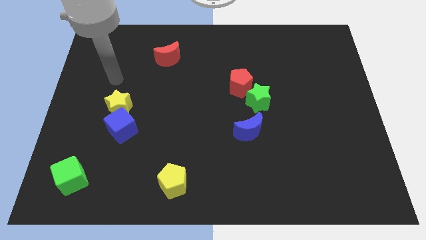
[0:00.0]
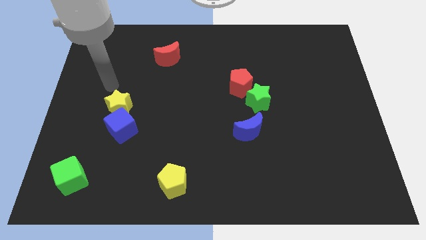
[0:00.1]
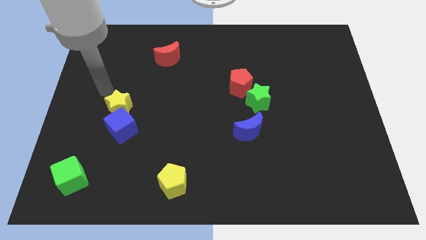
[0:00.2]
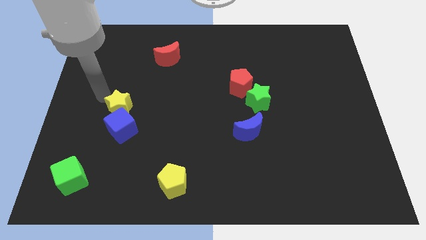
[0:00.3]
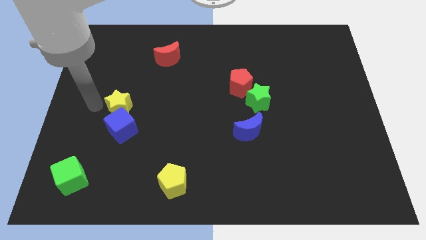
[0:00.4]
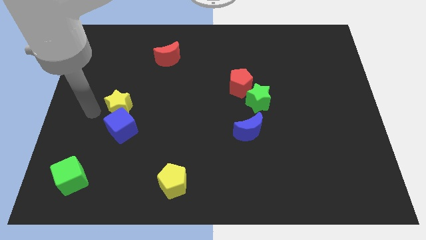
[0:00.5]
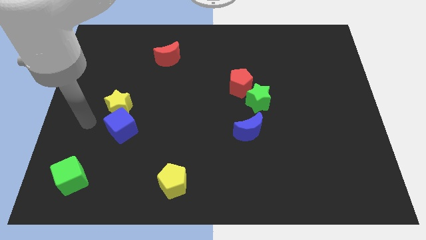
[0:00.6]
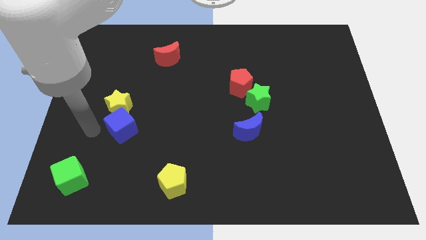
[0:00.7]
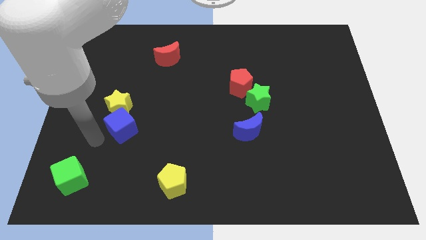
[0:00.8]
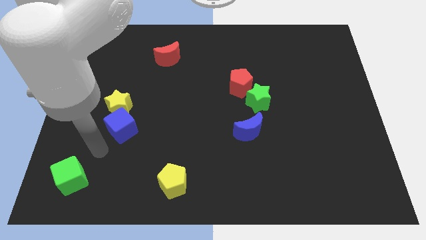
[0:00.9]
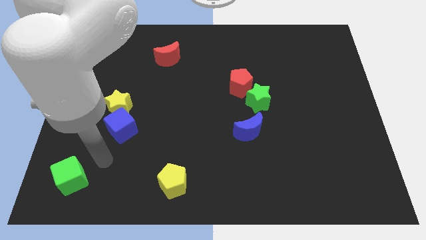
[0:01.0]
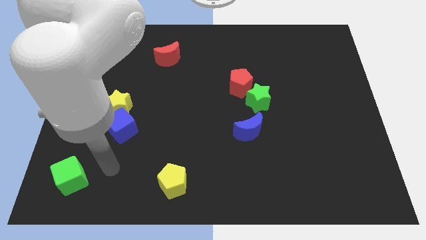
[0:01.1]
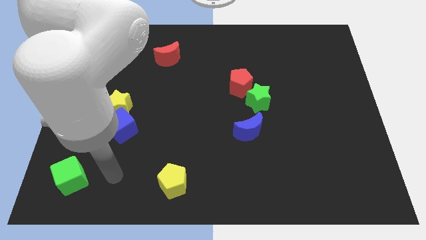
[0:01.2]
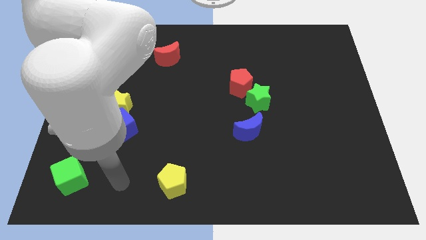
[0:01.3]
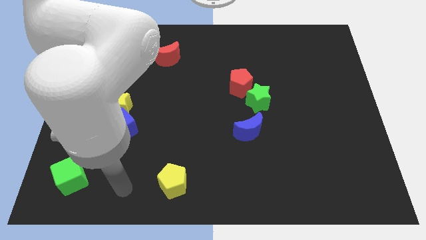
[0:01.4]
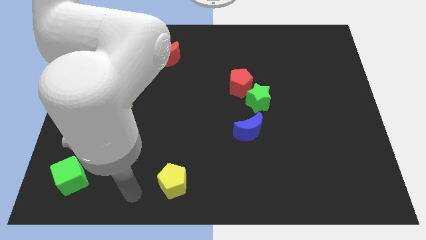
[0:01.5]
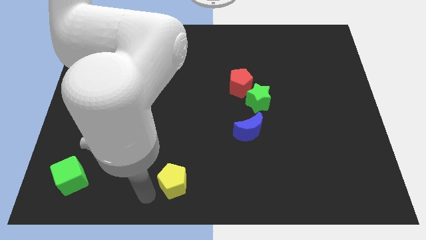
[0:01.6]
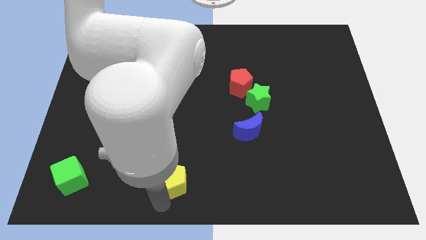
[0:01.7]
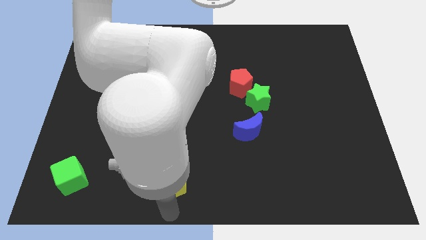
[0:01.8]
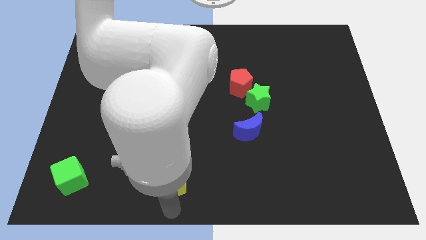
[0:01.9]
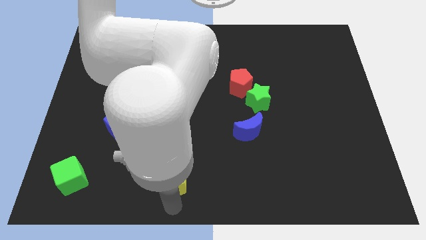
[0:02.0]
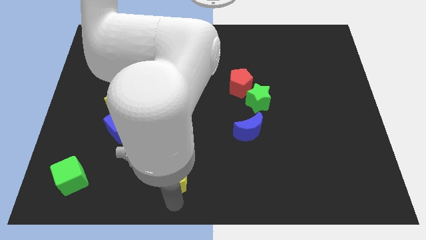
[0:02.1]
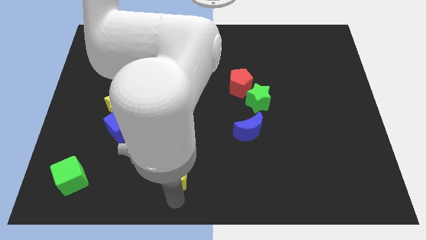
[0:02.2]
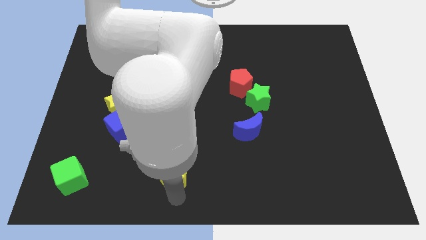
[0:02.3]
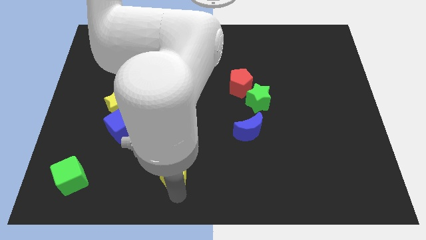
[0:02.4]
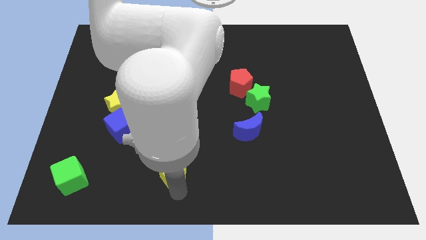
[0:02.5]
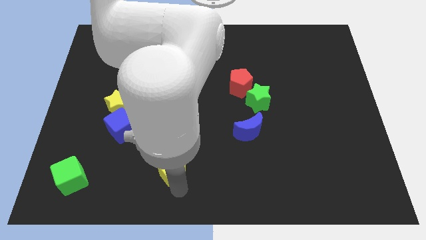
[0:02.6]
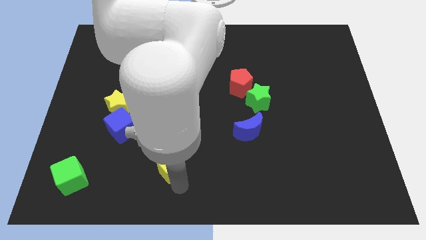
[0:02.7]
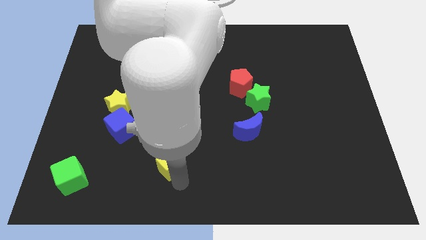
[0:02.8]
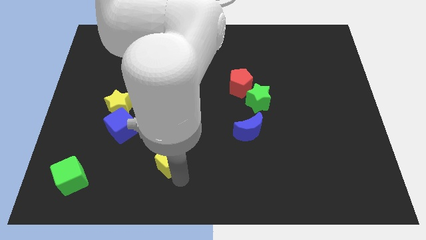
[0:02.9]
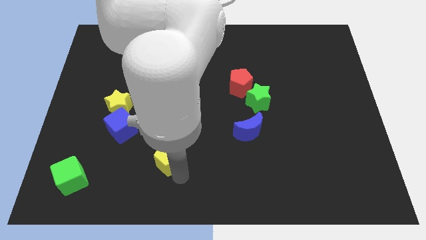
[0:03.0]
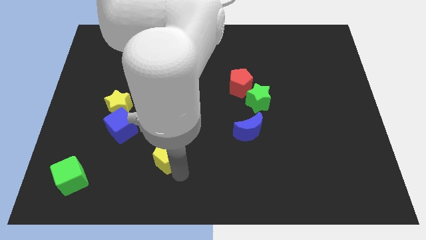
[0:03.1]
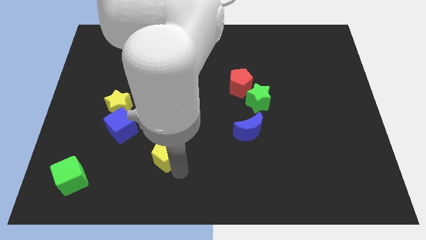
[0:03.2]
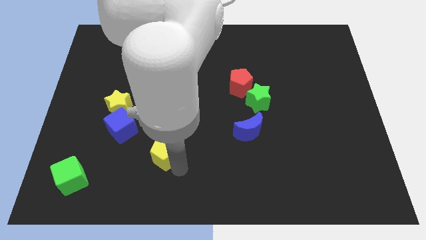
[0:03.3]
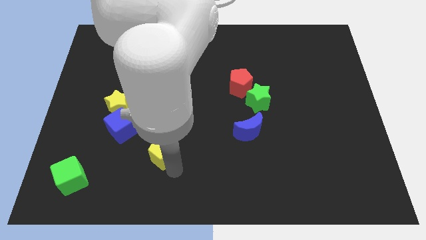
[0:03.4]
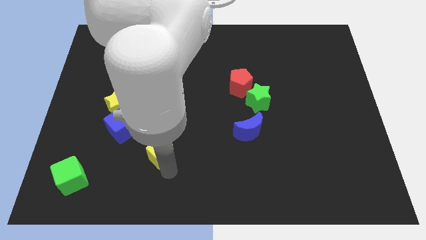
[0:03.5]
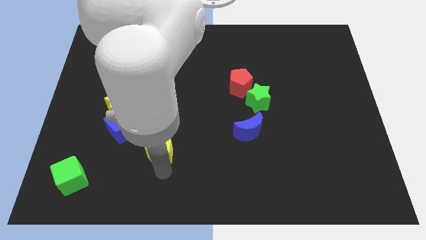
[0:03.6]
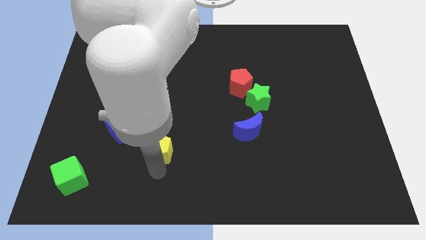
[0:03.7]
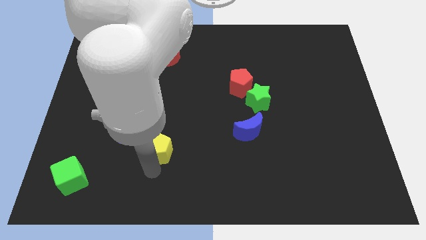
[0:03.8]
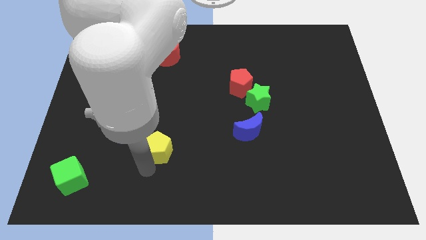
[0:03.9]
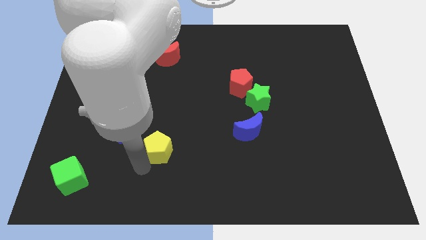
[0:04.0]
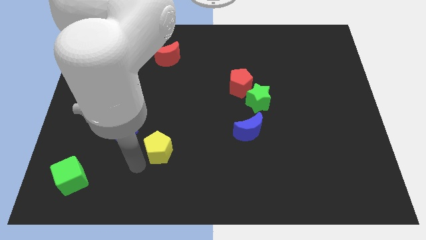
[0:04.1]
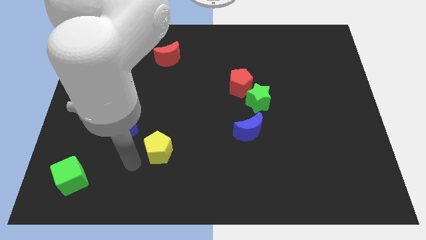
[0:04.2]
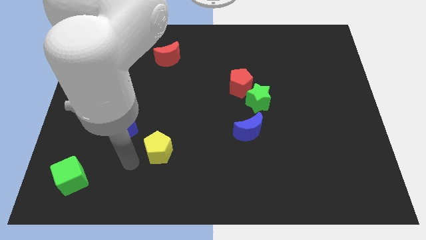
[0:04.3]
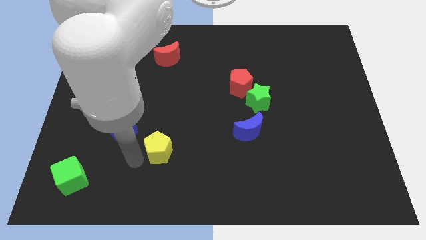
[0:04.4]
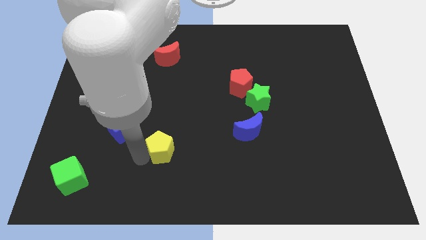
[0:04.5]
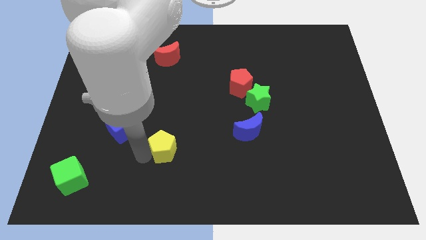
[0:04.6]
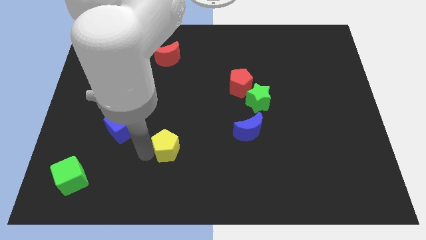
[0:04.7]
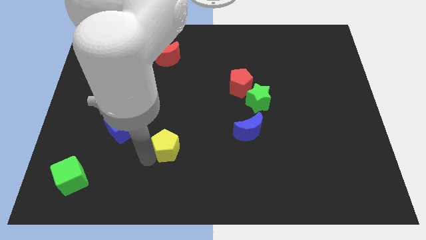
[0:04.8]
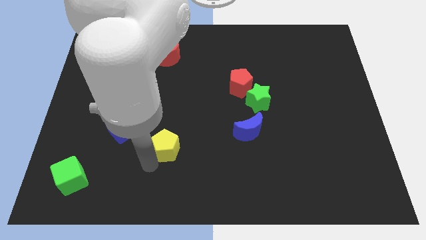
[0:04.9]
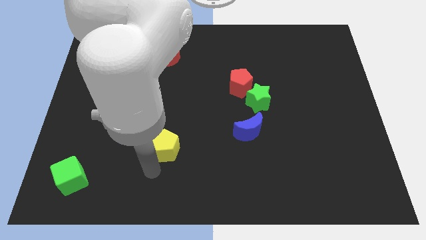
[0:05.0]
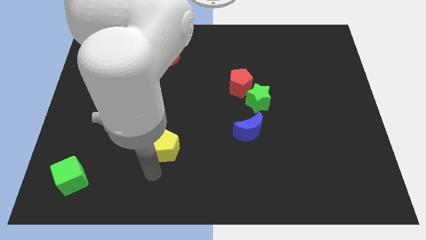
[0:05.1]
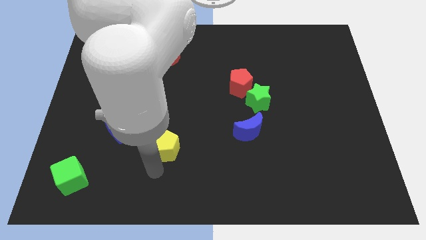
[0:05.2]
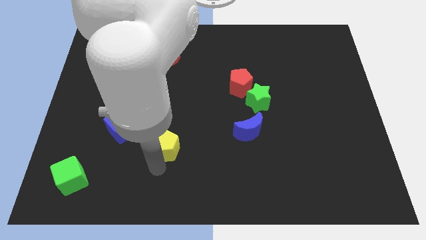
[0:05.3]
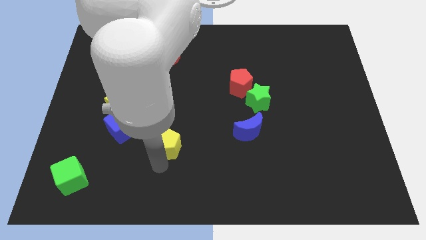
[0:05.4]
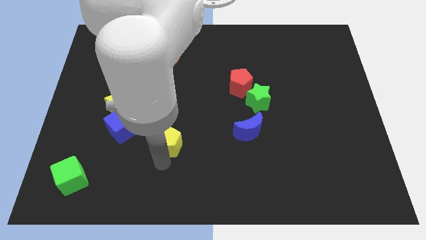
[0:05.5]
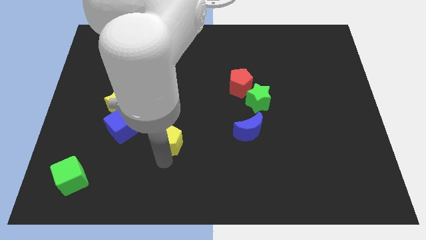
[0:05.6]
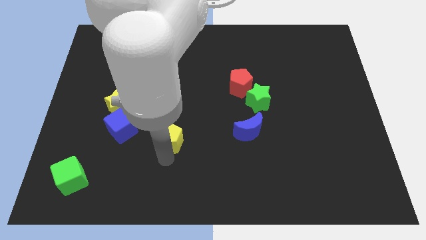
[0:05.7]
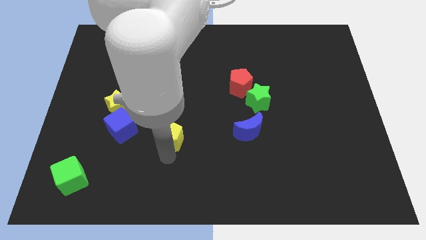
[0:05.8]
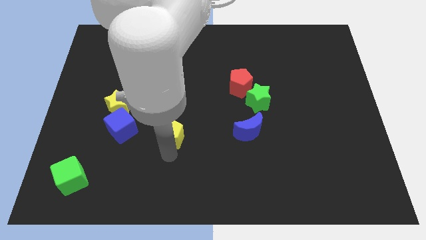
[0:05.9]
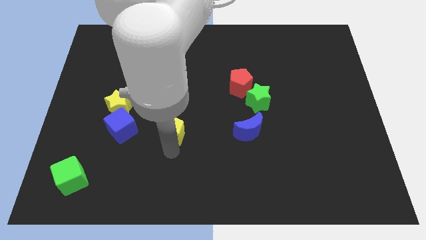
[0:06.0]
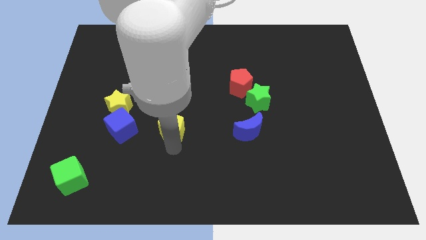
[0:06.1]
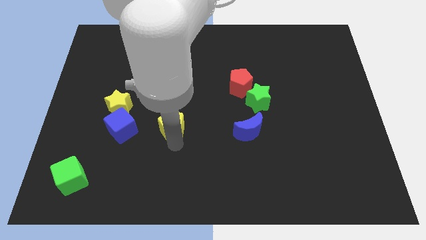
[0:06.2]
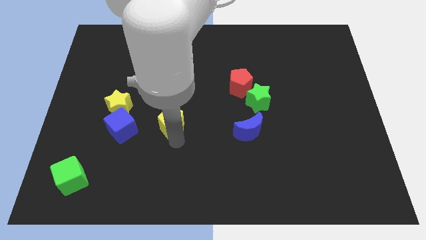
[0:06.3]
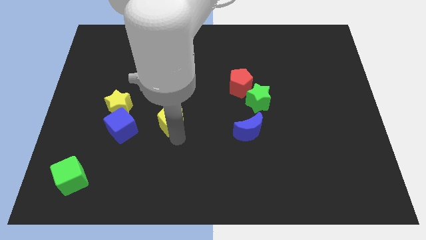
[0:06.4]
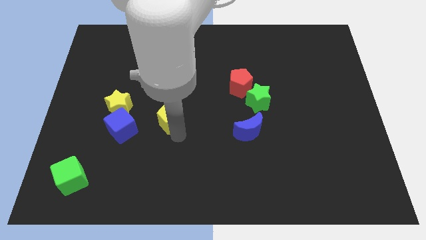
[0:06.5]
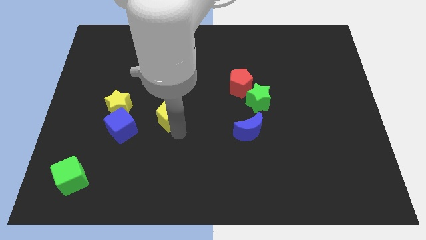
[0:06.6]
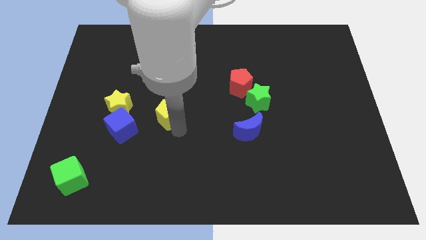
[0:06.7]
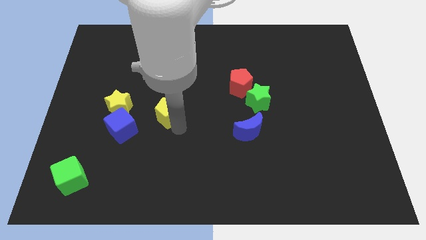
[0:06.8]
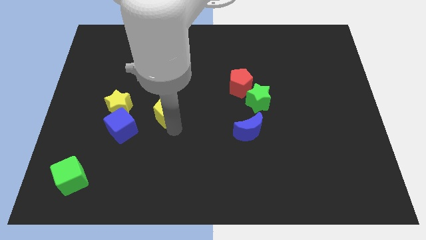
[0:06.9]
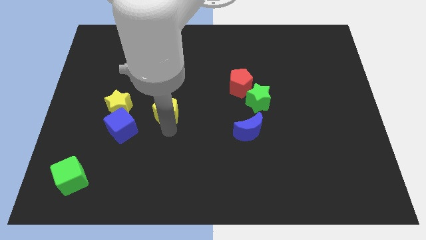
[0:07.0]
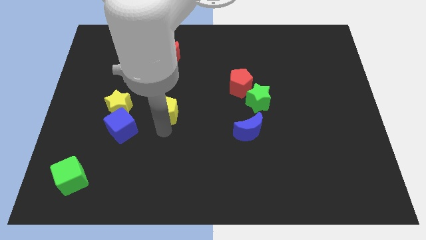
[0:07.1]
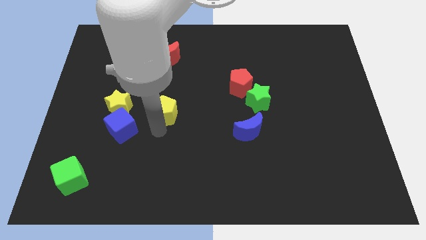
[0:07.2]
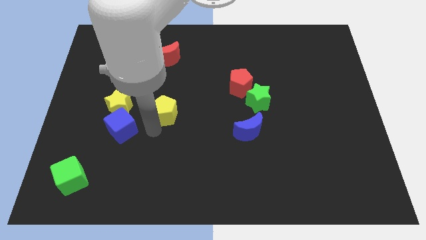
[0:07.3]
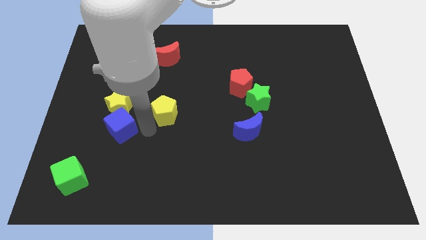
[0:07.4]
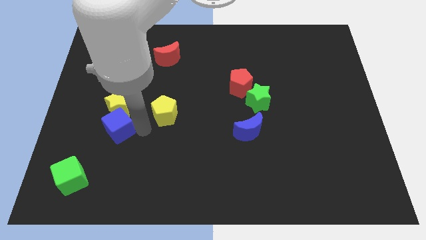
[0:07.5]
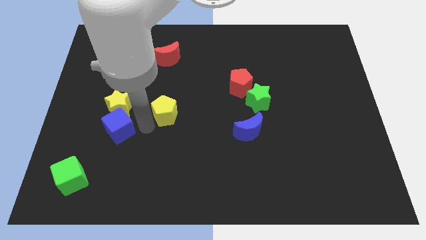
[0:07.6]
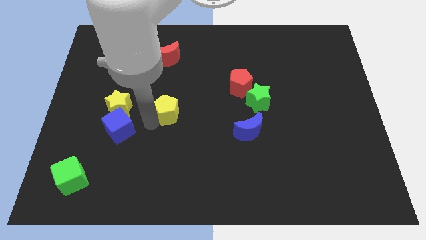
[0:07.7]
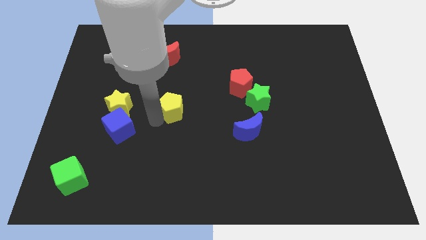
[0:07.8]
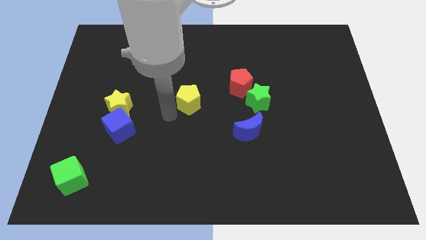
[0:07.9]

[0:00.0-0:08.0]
move the yellow pentagon up

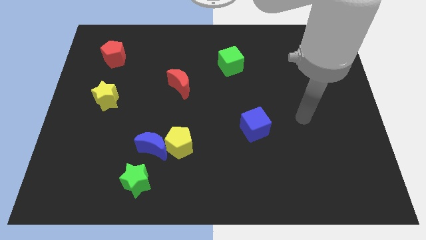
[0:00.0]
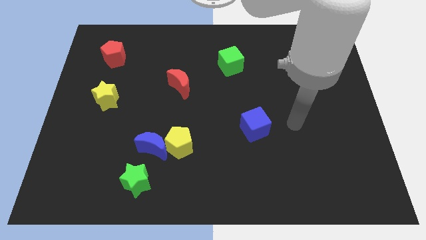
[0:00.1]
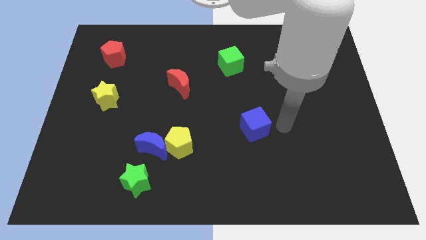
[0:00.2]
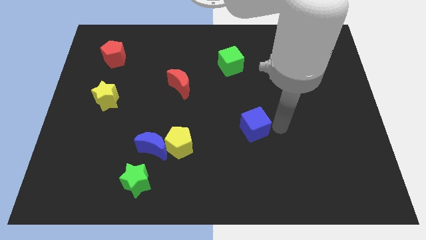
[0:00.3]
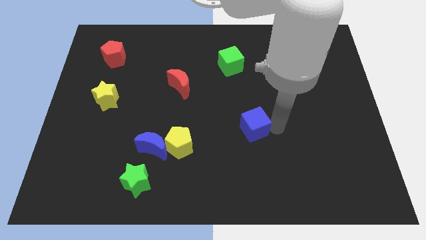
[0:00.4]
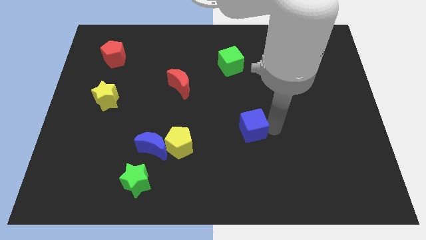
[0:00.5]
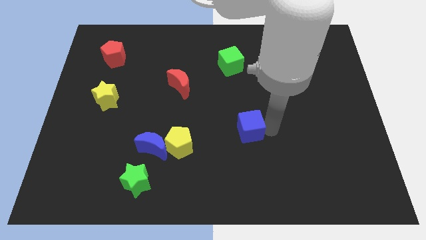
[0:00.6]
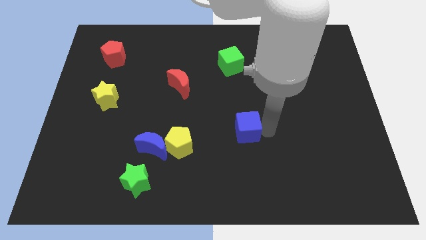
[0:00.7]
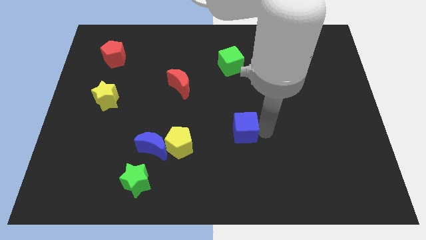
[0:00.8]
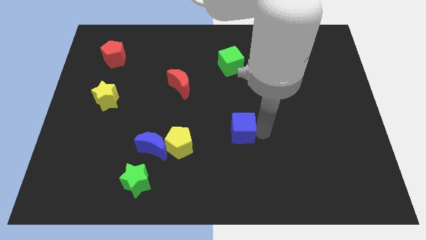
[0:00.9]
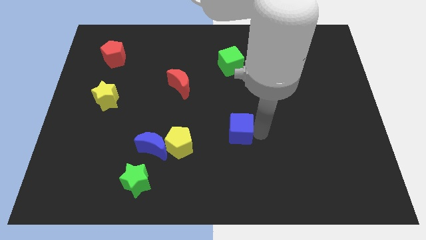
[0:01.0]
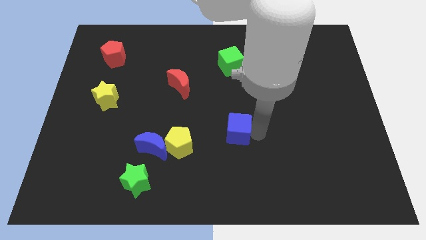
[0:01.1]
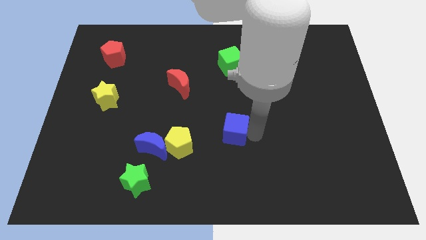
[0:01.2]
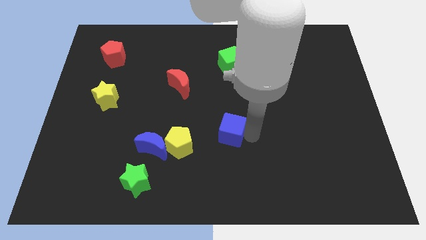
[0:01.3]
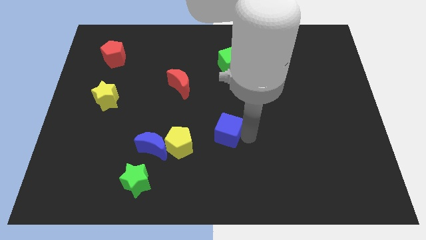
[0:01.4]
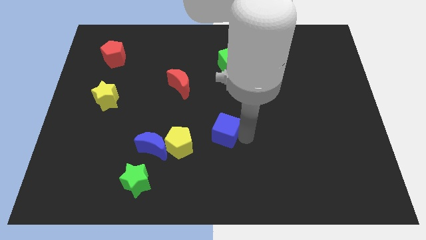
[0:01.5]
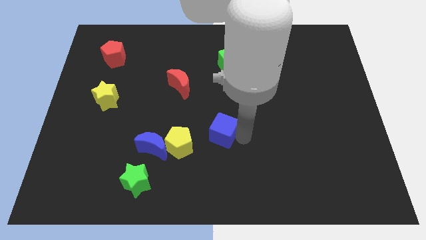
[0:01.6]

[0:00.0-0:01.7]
push the blue cube left somewhat
